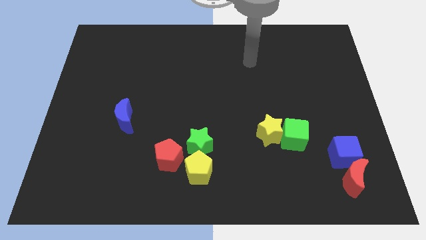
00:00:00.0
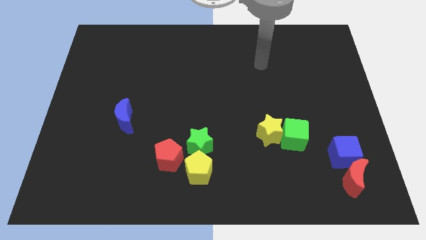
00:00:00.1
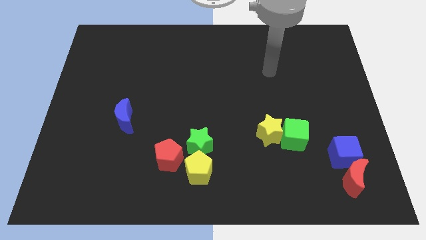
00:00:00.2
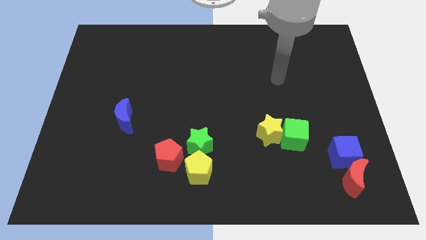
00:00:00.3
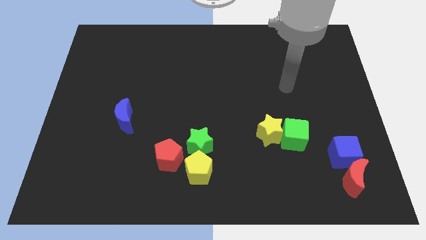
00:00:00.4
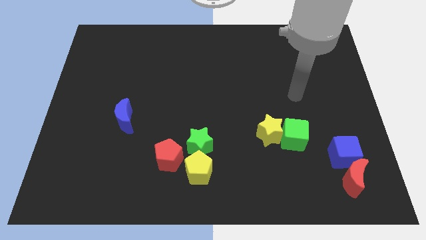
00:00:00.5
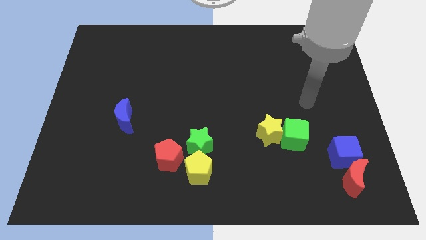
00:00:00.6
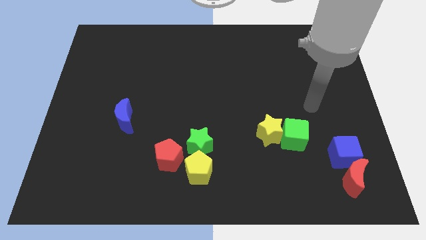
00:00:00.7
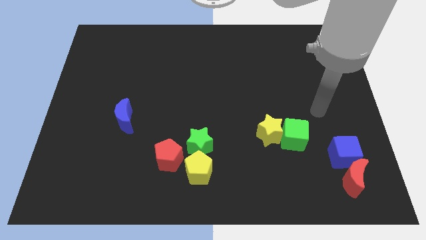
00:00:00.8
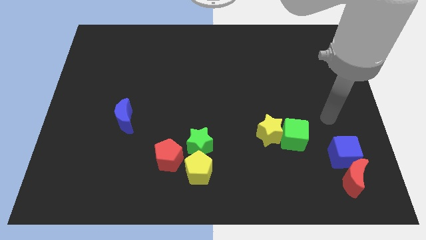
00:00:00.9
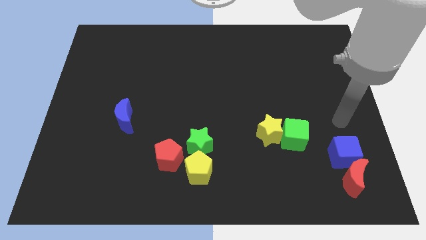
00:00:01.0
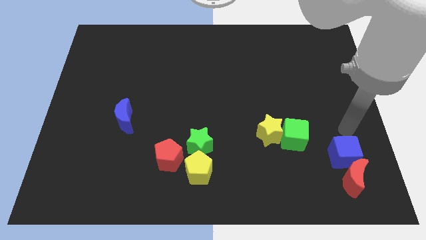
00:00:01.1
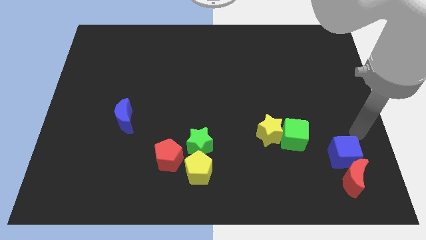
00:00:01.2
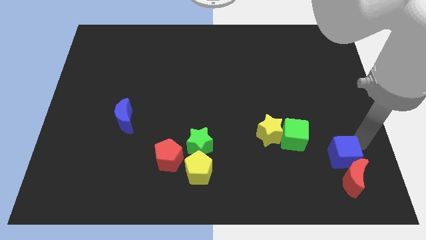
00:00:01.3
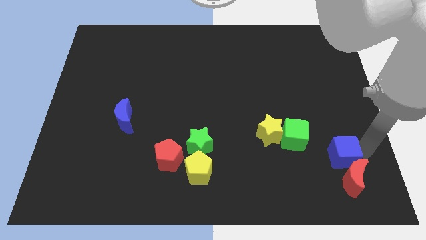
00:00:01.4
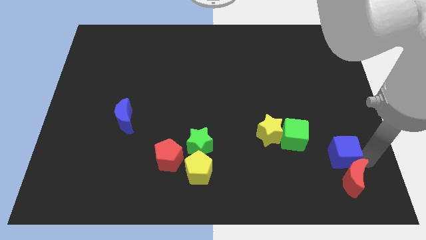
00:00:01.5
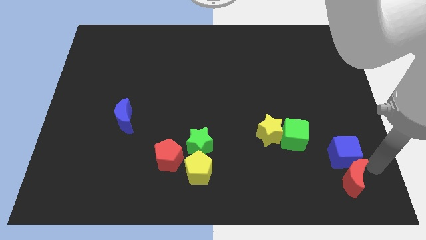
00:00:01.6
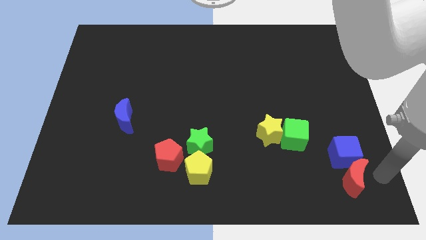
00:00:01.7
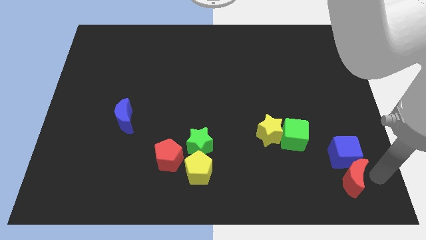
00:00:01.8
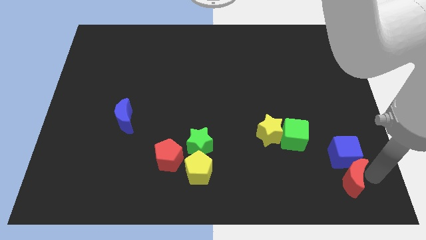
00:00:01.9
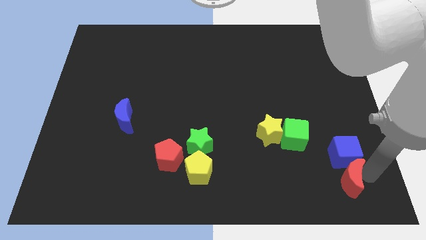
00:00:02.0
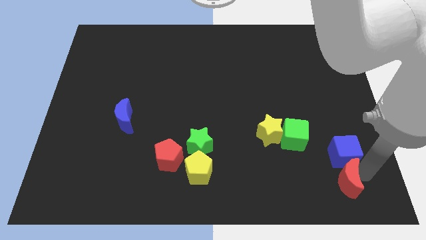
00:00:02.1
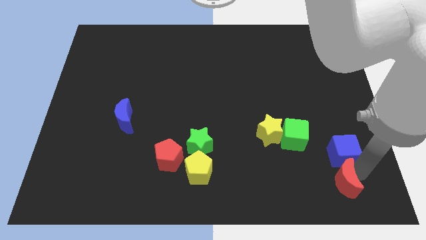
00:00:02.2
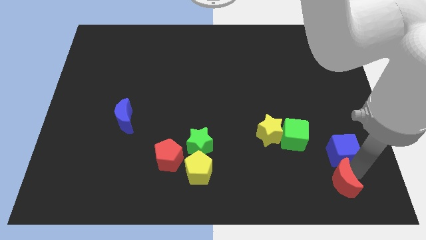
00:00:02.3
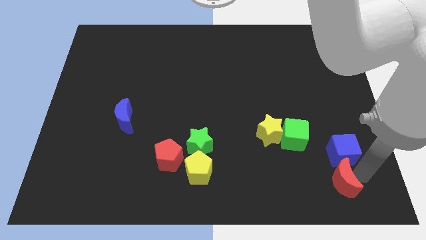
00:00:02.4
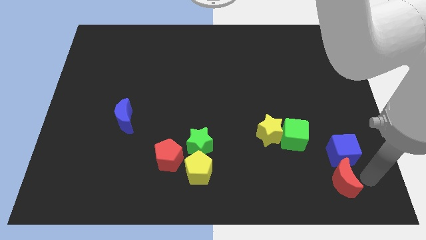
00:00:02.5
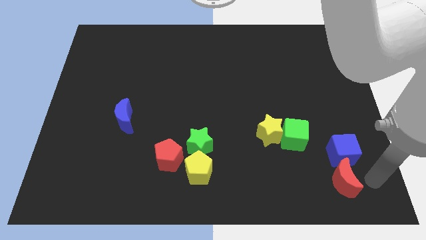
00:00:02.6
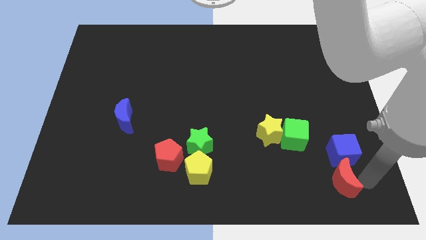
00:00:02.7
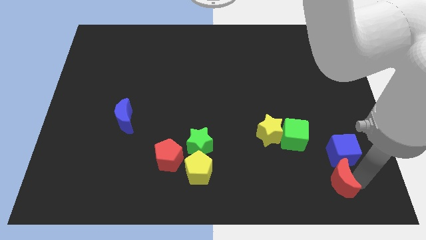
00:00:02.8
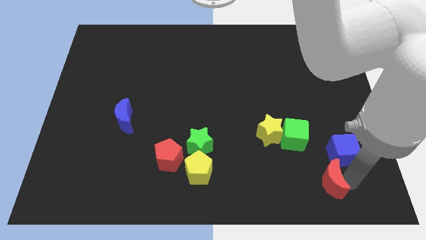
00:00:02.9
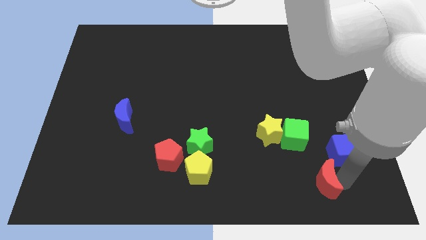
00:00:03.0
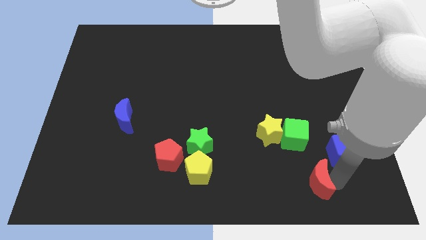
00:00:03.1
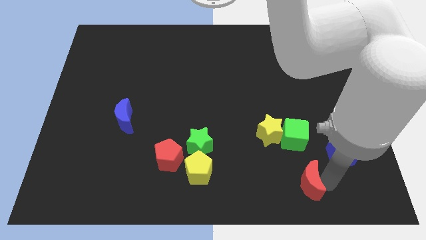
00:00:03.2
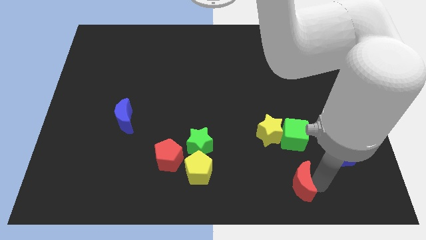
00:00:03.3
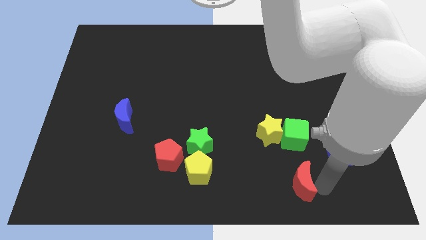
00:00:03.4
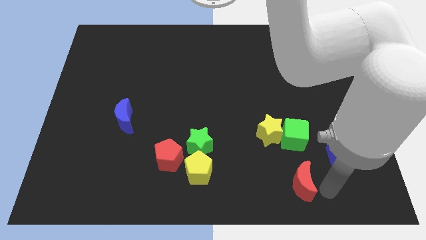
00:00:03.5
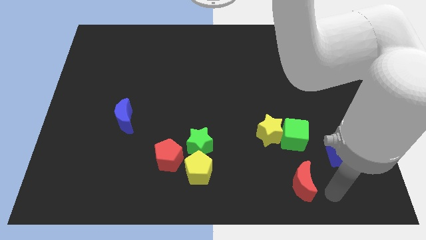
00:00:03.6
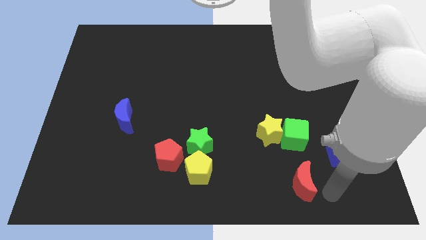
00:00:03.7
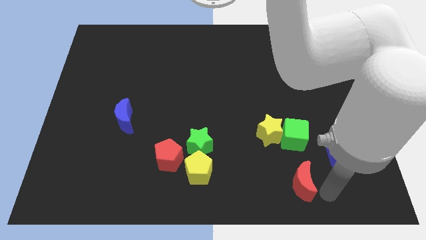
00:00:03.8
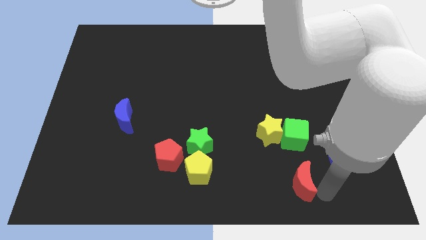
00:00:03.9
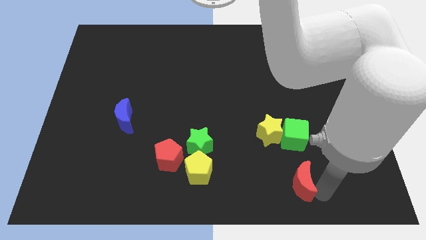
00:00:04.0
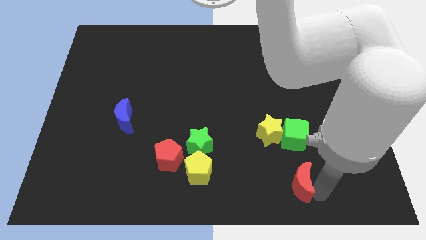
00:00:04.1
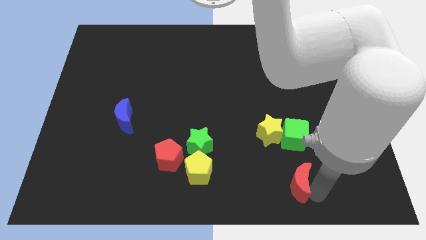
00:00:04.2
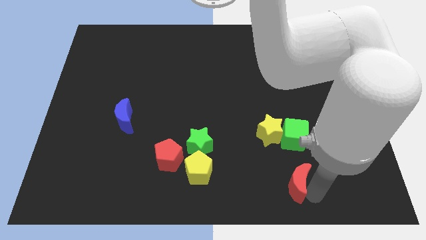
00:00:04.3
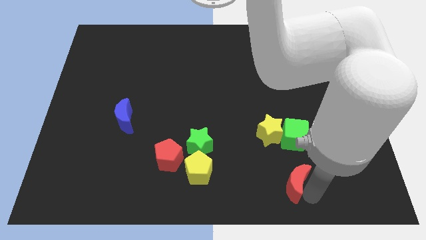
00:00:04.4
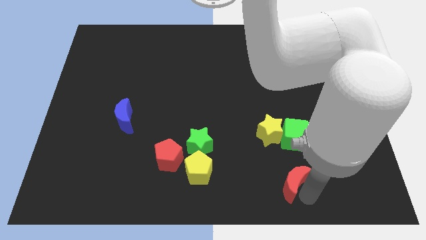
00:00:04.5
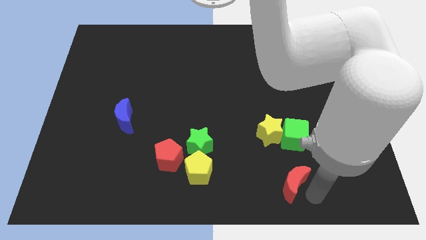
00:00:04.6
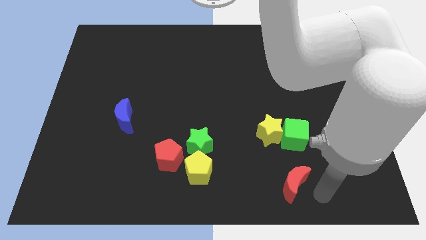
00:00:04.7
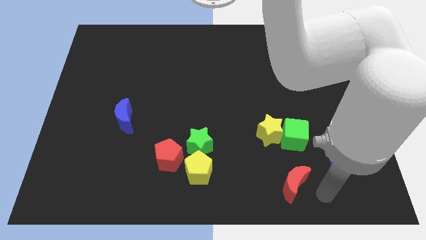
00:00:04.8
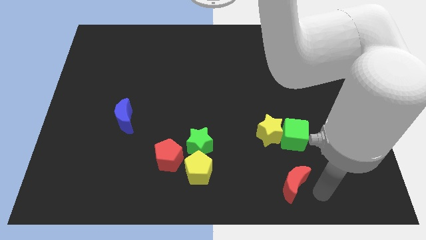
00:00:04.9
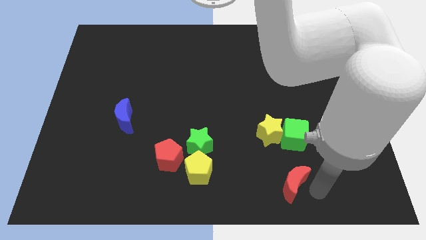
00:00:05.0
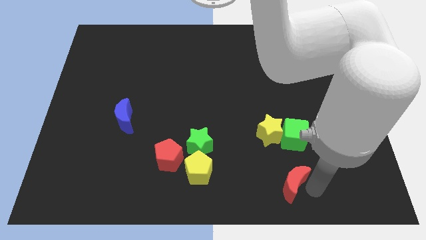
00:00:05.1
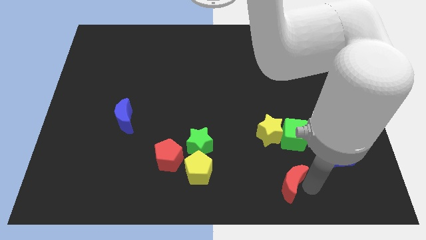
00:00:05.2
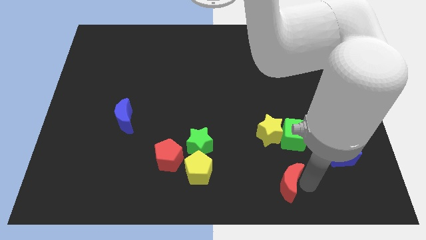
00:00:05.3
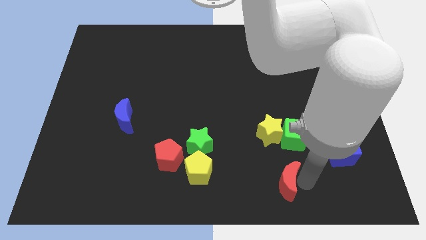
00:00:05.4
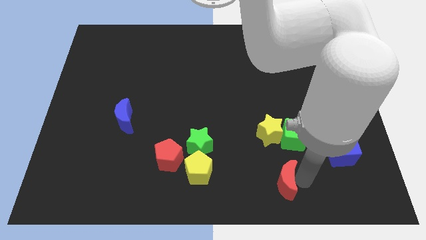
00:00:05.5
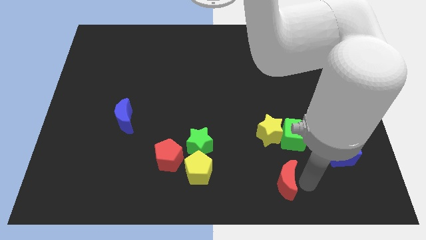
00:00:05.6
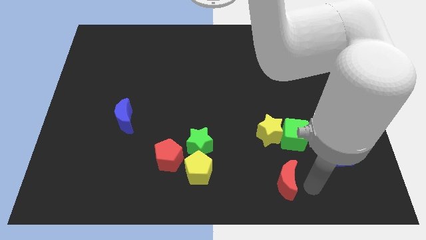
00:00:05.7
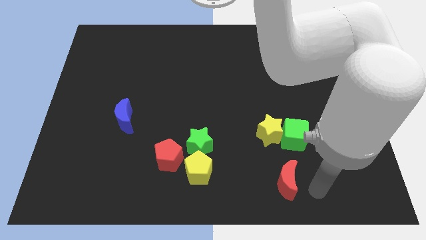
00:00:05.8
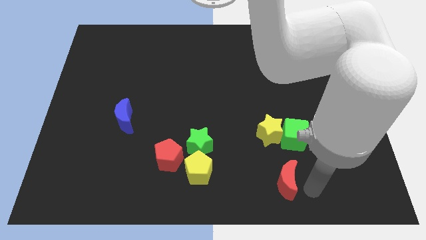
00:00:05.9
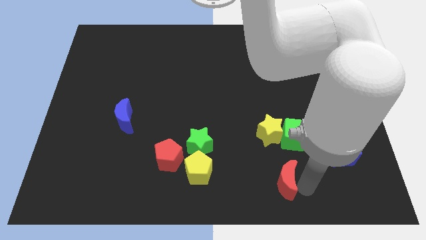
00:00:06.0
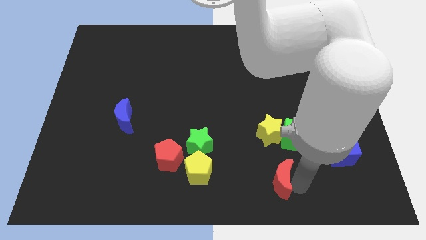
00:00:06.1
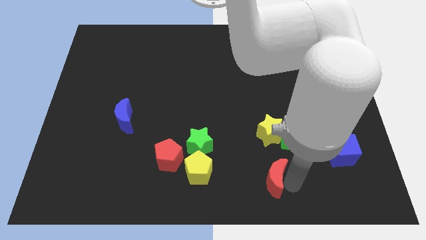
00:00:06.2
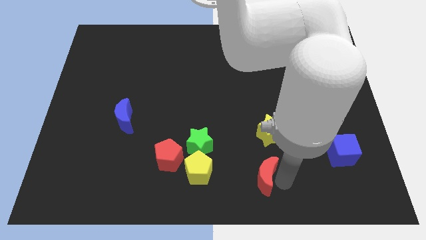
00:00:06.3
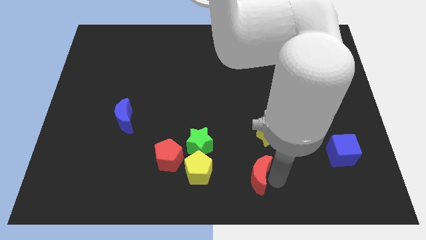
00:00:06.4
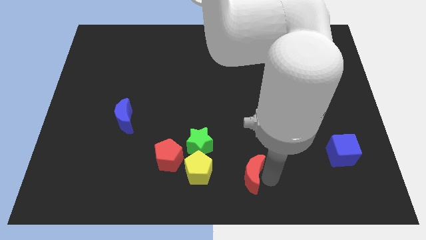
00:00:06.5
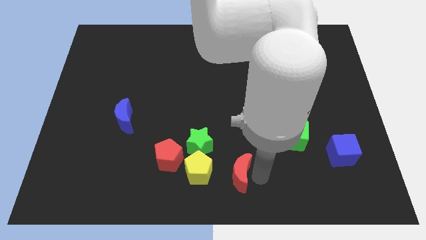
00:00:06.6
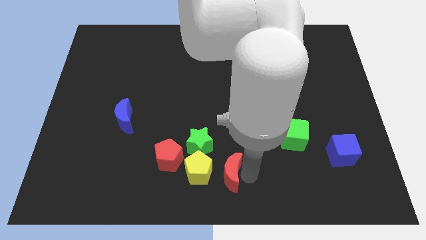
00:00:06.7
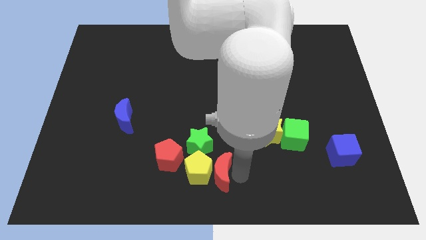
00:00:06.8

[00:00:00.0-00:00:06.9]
move the red moon next to the yellow pentagon
